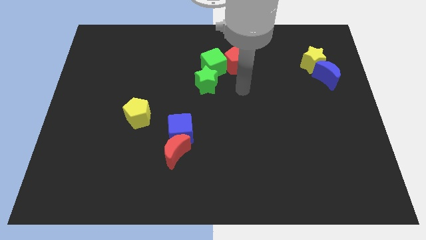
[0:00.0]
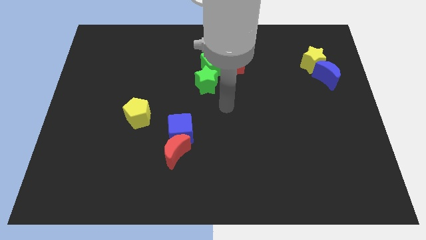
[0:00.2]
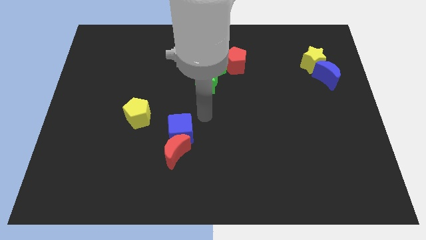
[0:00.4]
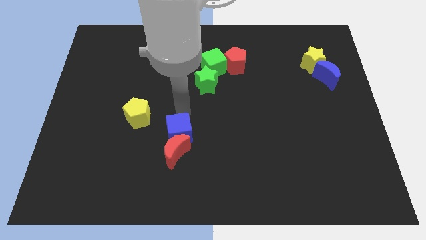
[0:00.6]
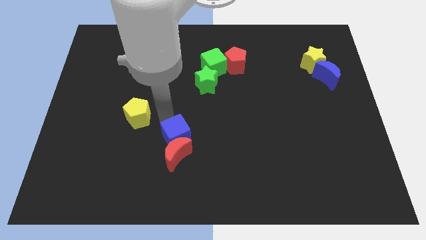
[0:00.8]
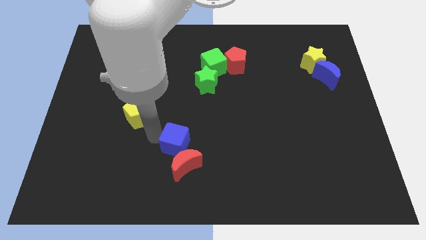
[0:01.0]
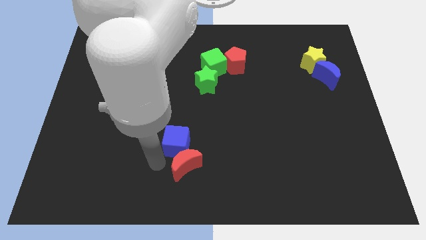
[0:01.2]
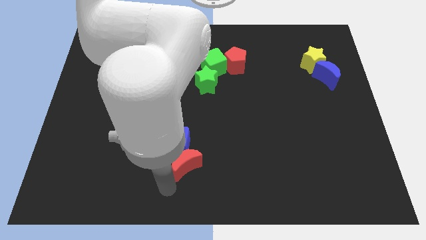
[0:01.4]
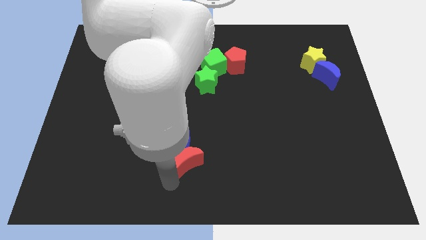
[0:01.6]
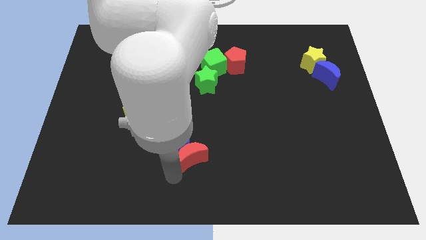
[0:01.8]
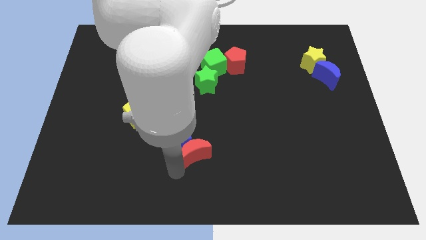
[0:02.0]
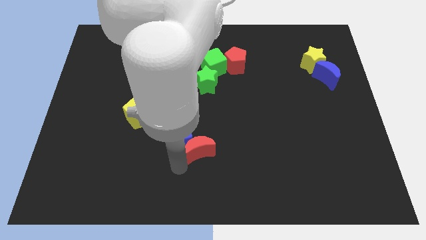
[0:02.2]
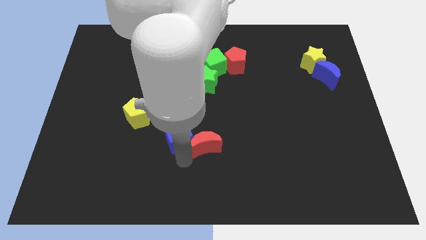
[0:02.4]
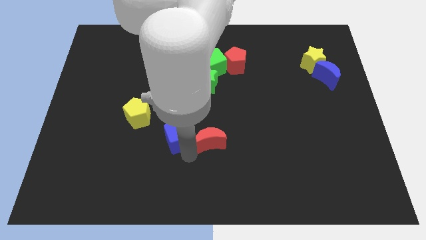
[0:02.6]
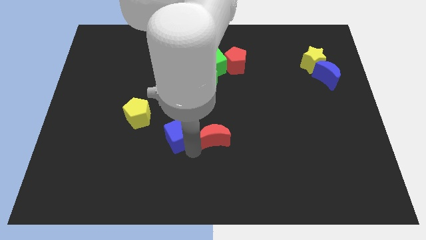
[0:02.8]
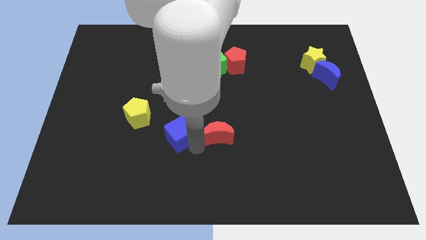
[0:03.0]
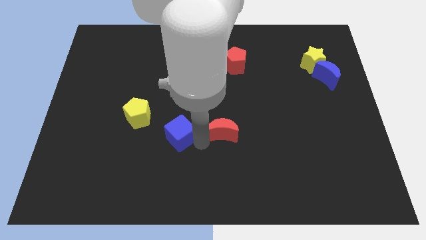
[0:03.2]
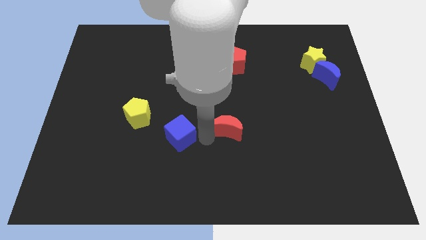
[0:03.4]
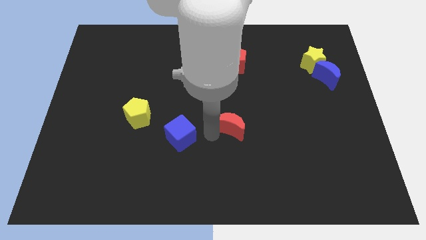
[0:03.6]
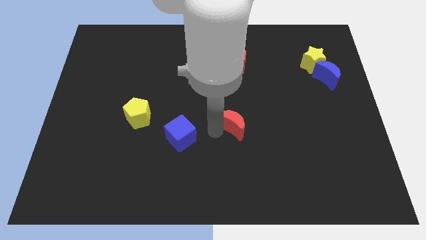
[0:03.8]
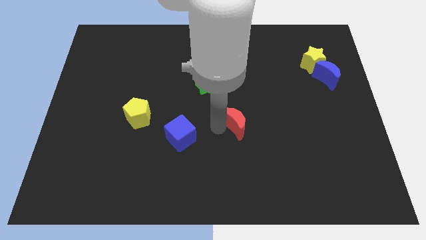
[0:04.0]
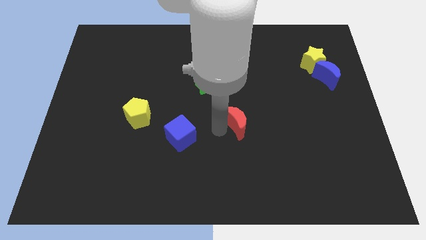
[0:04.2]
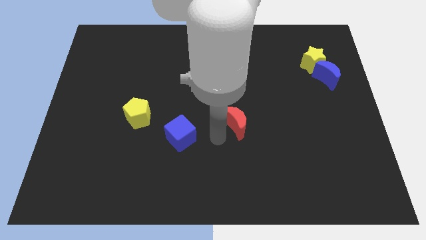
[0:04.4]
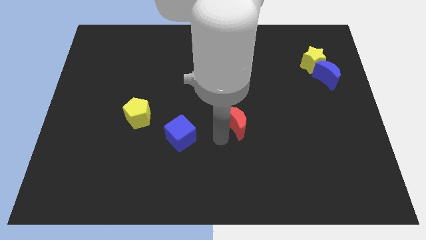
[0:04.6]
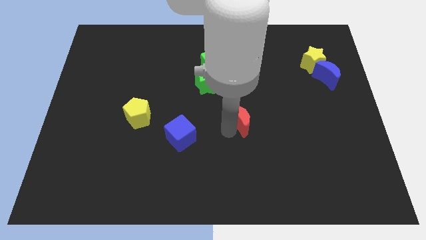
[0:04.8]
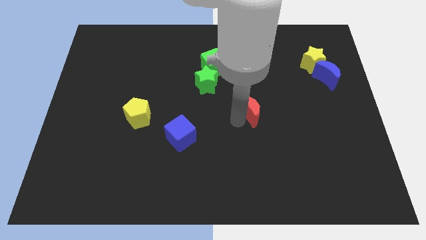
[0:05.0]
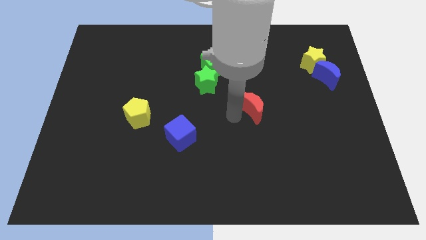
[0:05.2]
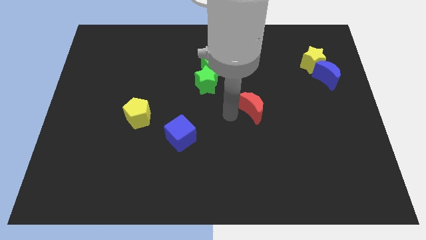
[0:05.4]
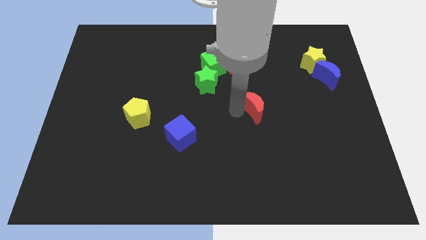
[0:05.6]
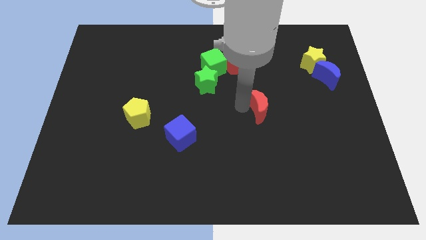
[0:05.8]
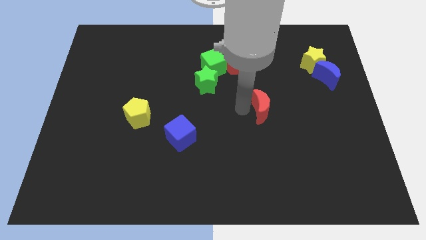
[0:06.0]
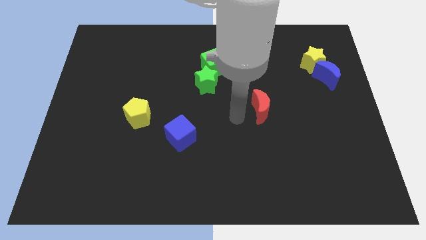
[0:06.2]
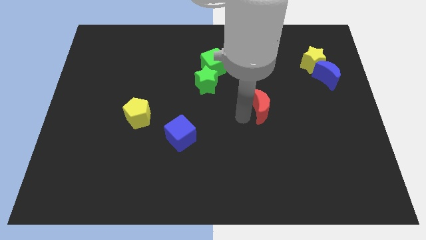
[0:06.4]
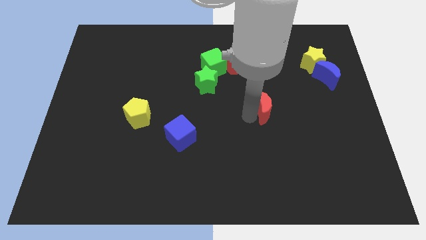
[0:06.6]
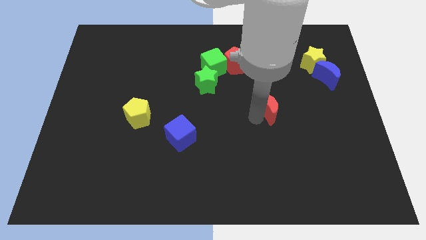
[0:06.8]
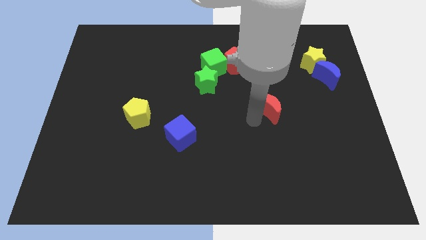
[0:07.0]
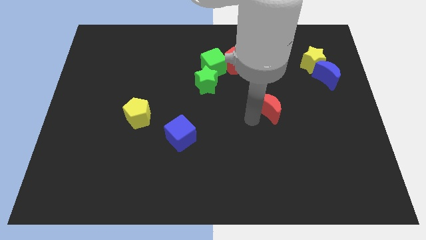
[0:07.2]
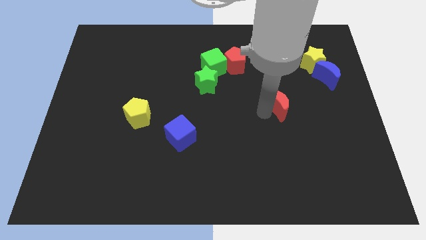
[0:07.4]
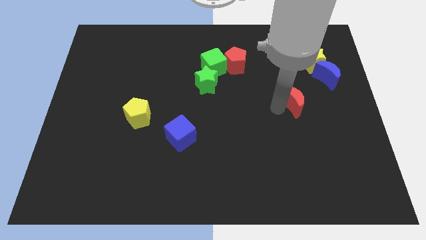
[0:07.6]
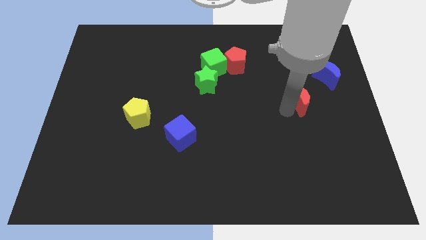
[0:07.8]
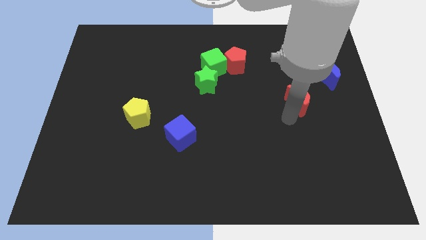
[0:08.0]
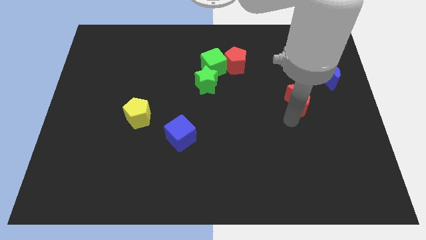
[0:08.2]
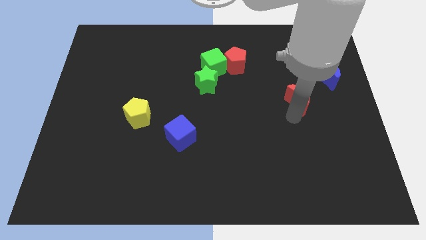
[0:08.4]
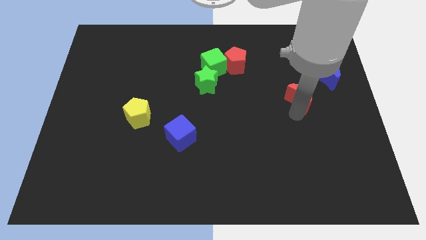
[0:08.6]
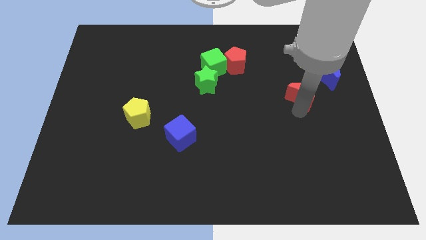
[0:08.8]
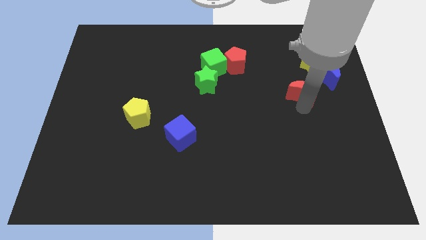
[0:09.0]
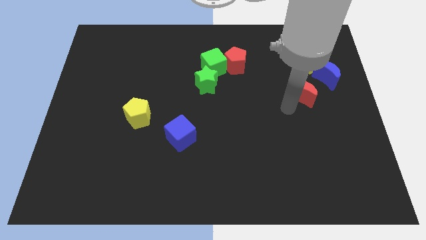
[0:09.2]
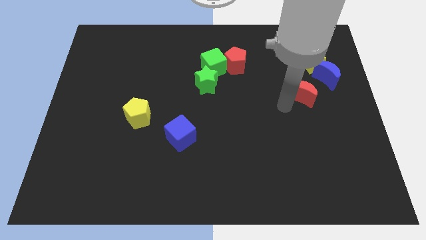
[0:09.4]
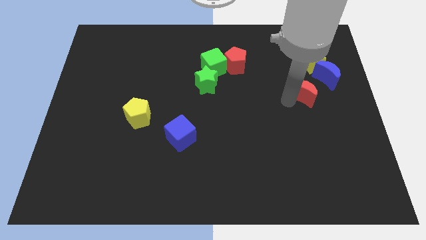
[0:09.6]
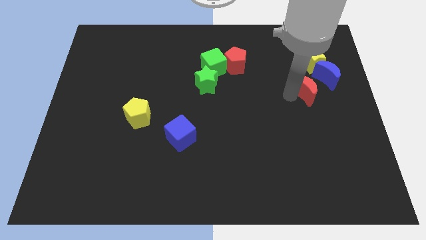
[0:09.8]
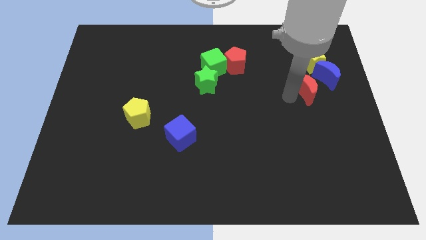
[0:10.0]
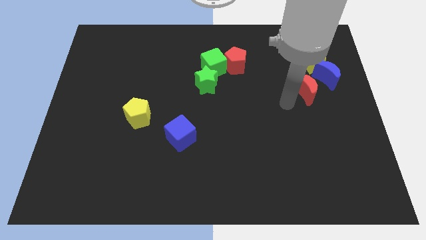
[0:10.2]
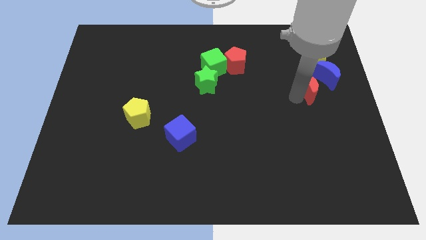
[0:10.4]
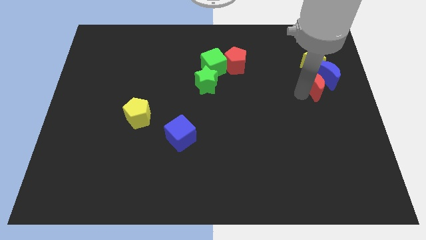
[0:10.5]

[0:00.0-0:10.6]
move the red moon to the blue moon

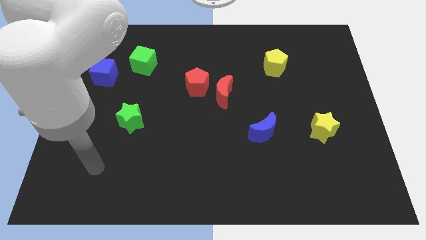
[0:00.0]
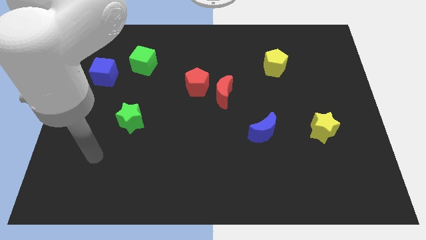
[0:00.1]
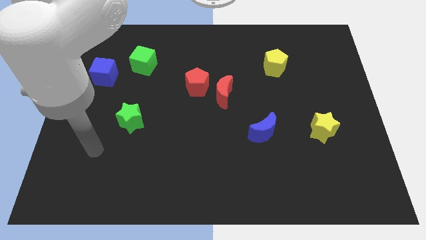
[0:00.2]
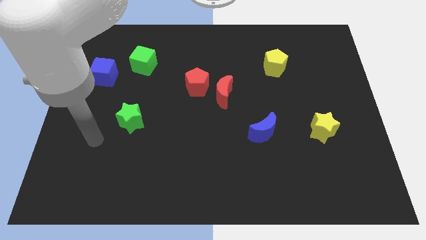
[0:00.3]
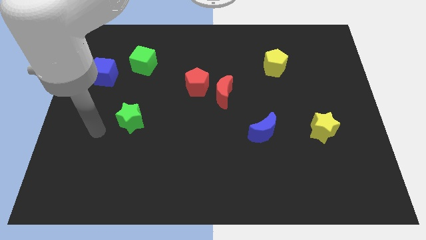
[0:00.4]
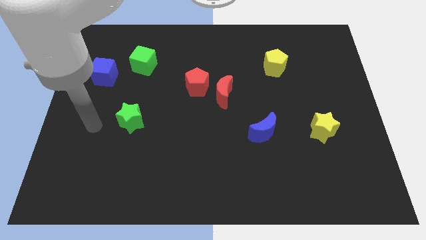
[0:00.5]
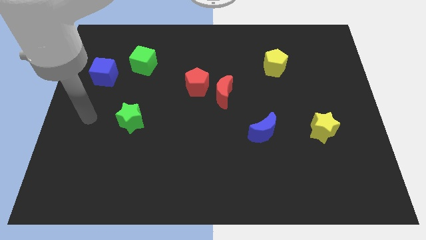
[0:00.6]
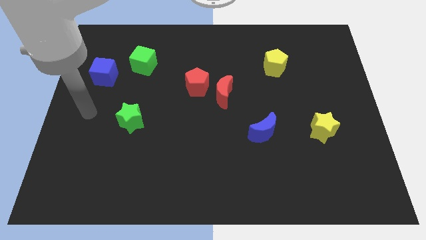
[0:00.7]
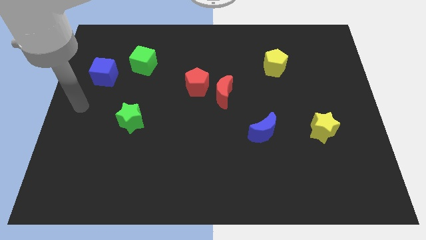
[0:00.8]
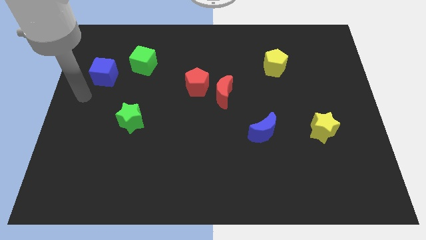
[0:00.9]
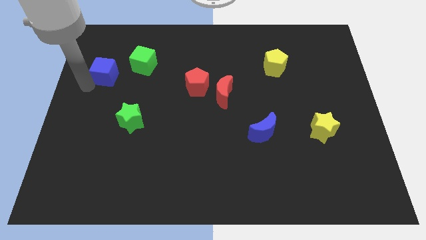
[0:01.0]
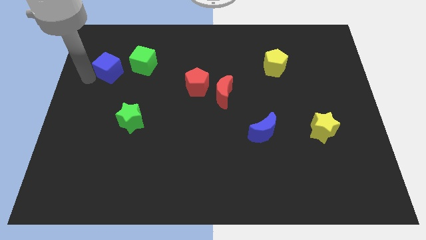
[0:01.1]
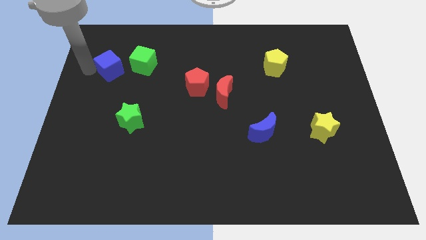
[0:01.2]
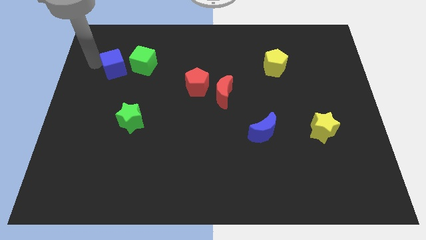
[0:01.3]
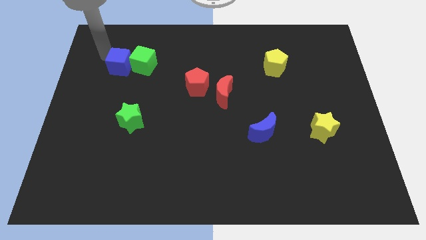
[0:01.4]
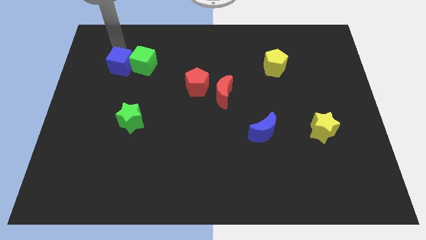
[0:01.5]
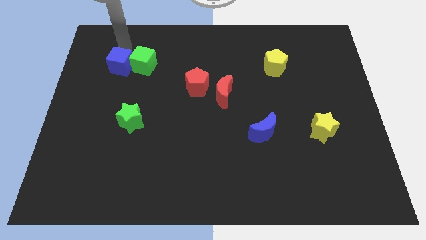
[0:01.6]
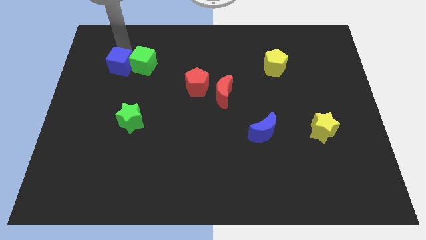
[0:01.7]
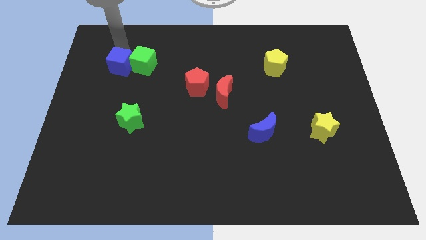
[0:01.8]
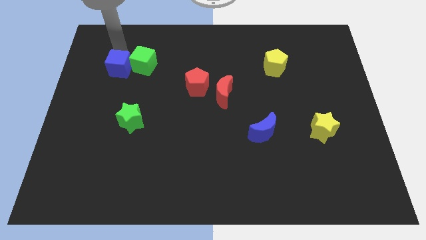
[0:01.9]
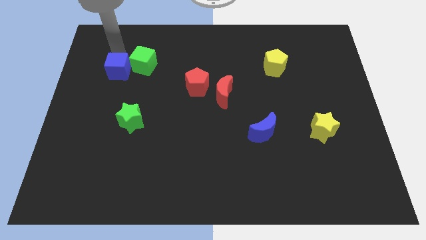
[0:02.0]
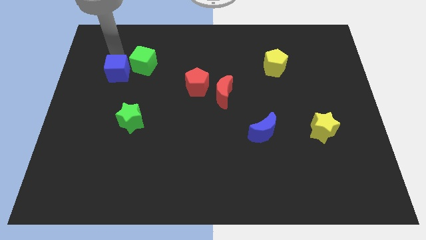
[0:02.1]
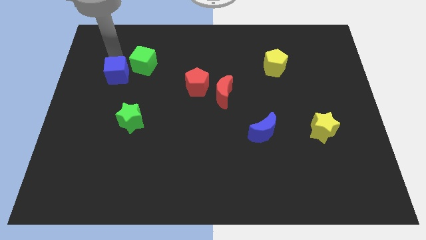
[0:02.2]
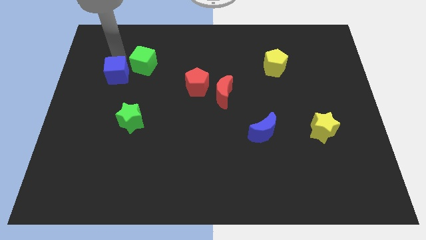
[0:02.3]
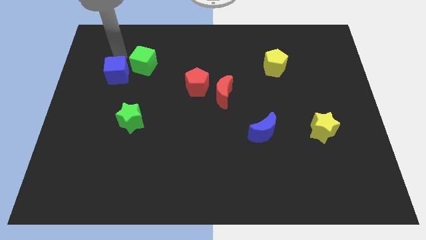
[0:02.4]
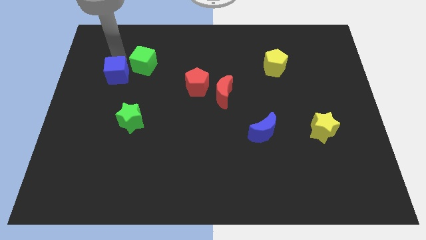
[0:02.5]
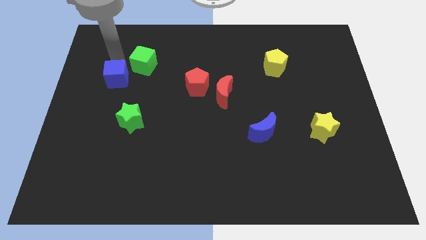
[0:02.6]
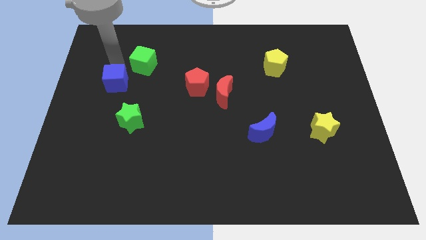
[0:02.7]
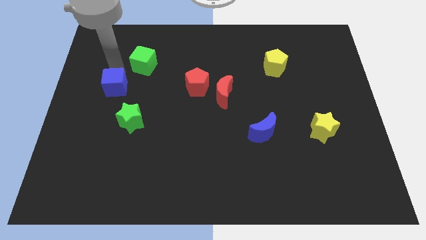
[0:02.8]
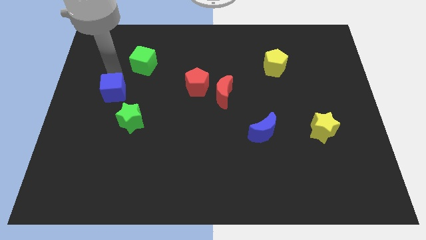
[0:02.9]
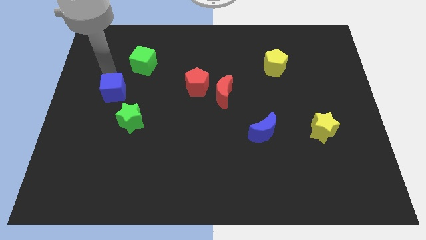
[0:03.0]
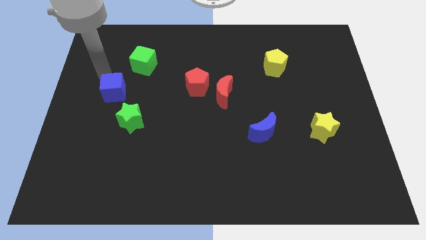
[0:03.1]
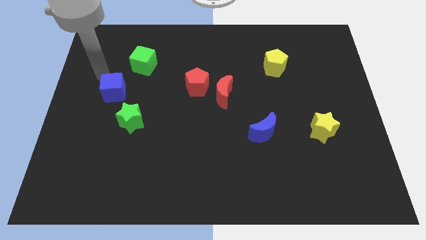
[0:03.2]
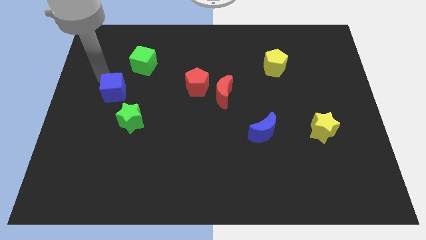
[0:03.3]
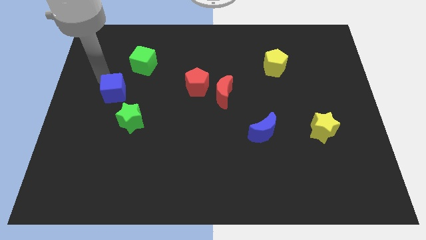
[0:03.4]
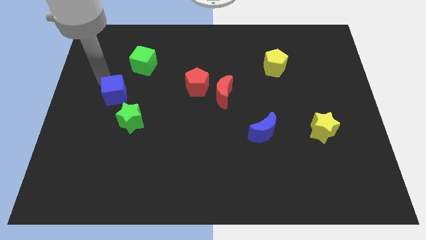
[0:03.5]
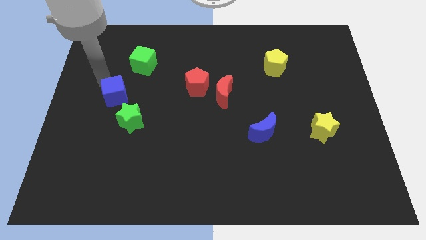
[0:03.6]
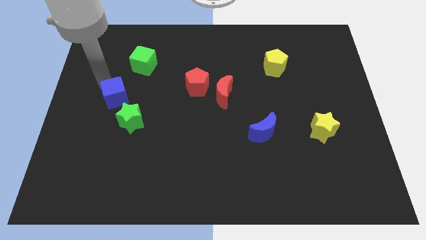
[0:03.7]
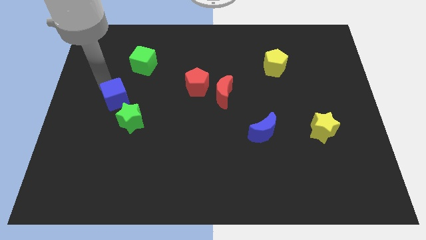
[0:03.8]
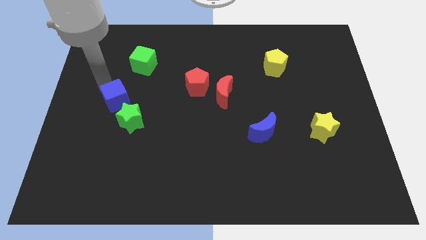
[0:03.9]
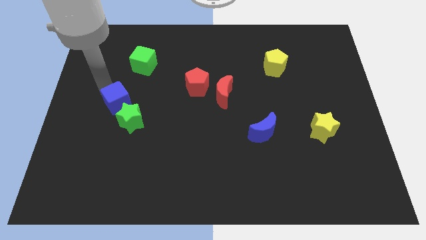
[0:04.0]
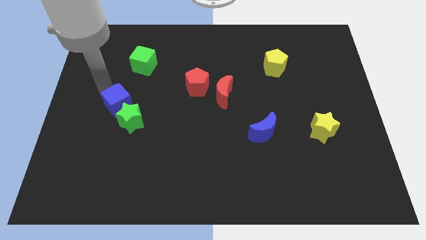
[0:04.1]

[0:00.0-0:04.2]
slide the blue cube towards the green star
